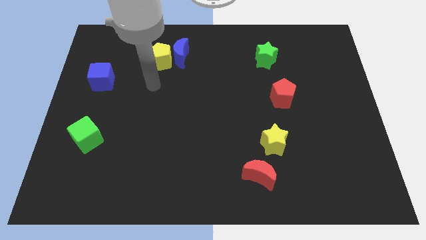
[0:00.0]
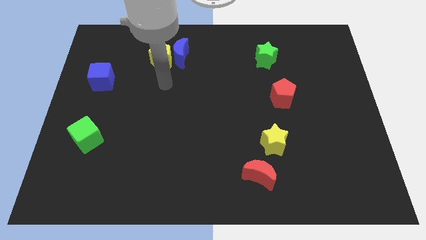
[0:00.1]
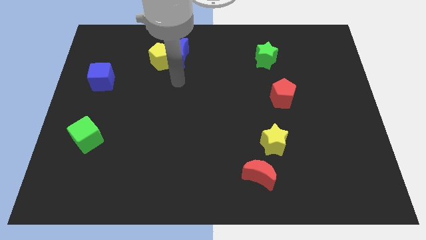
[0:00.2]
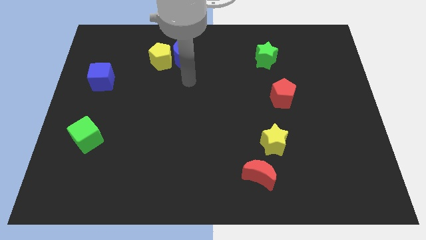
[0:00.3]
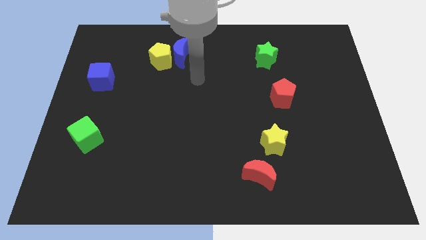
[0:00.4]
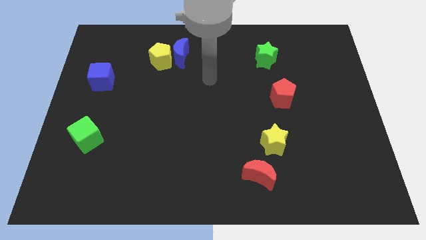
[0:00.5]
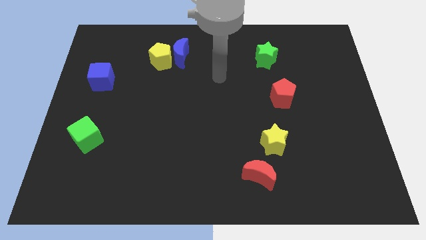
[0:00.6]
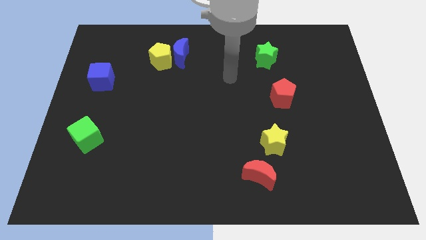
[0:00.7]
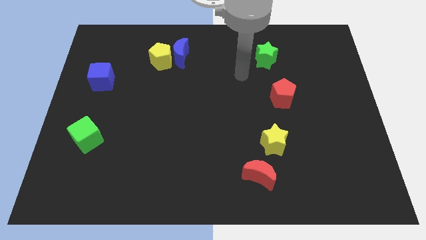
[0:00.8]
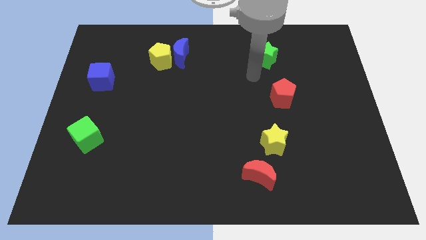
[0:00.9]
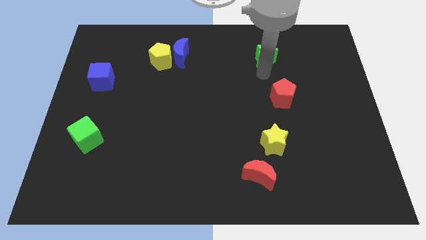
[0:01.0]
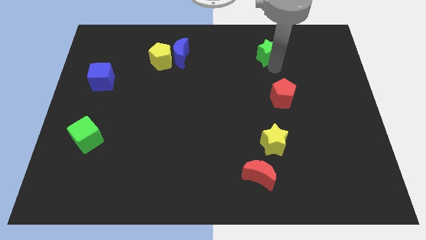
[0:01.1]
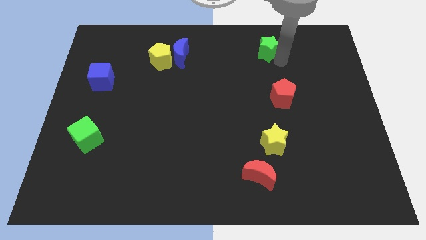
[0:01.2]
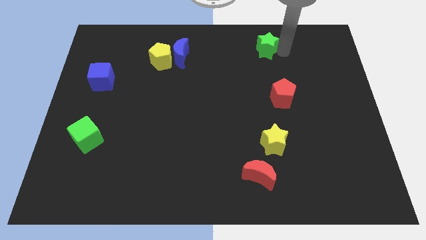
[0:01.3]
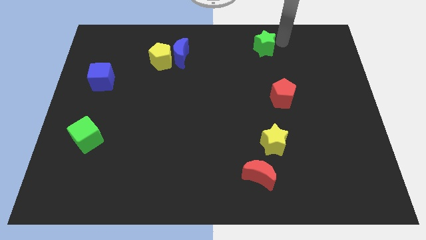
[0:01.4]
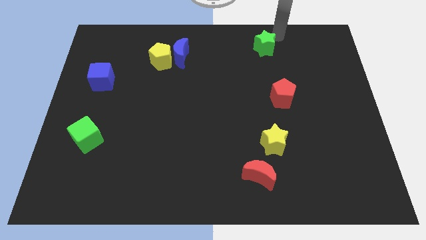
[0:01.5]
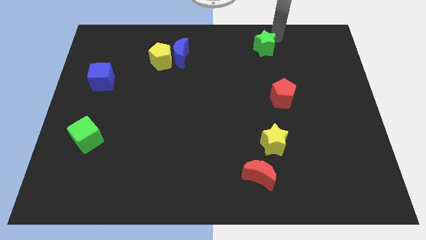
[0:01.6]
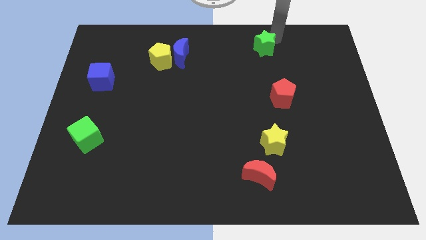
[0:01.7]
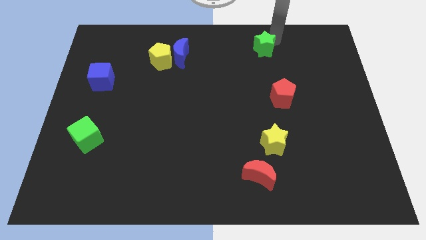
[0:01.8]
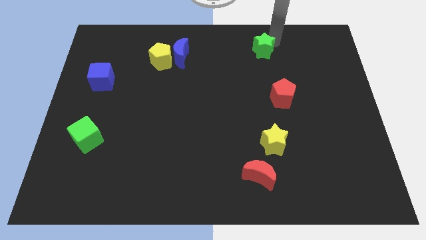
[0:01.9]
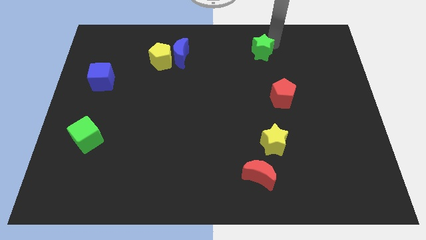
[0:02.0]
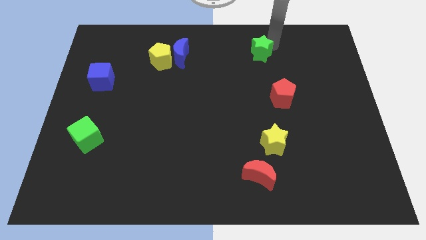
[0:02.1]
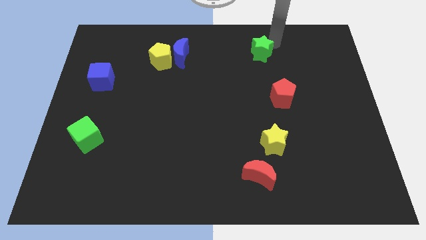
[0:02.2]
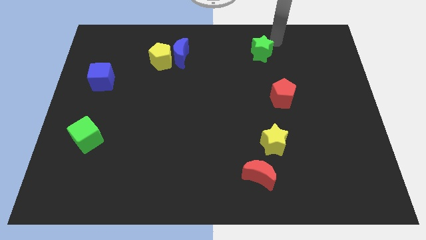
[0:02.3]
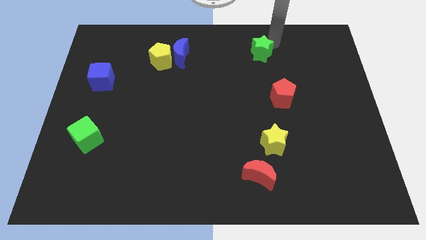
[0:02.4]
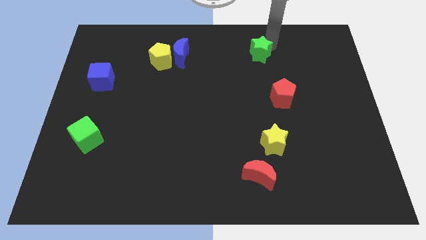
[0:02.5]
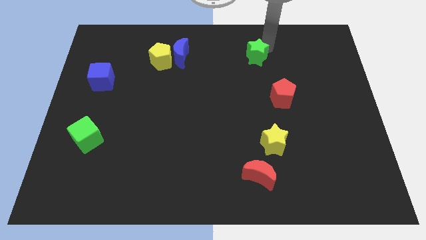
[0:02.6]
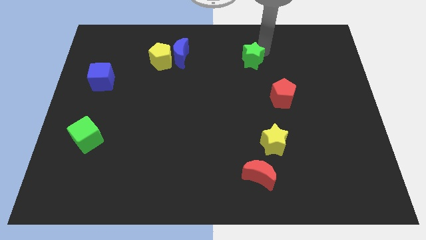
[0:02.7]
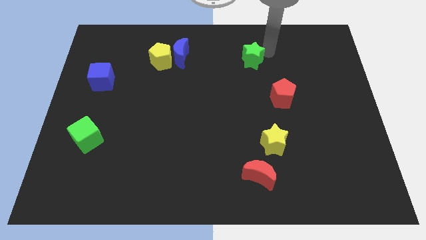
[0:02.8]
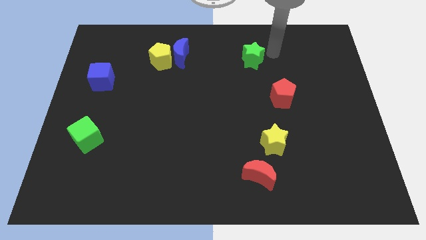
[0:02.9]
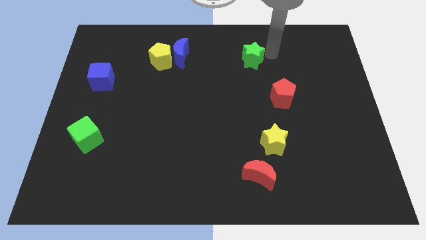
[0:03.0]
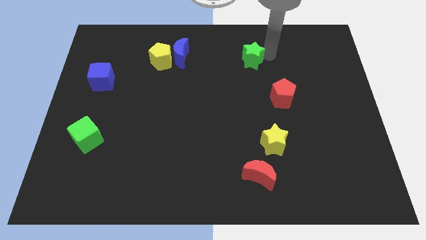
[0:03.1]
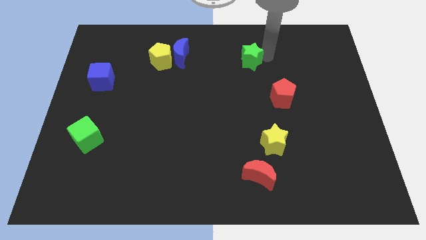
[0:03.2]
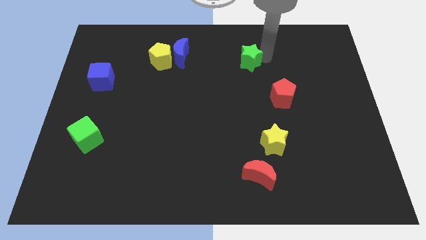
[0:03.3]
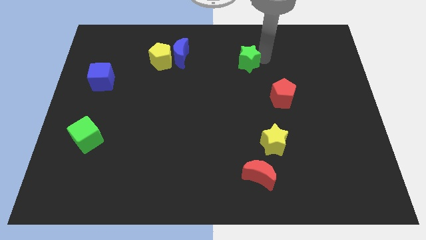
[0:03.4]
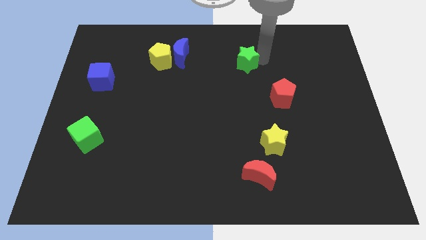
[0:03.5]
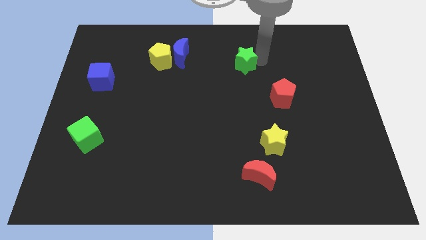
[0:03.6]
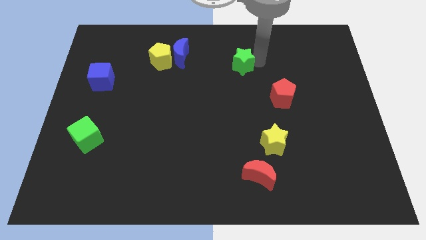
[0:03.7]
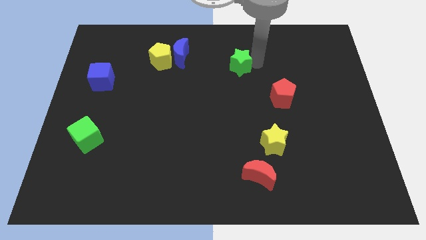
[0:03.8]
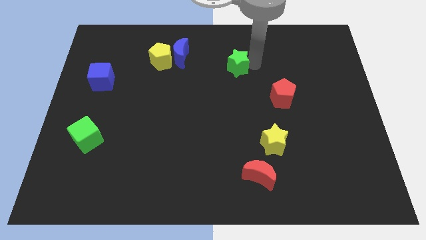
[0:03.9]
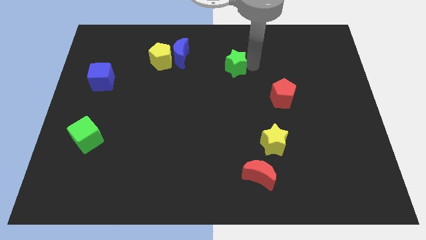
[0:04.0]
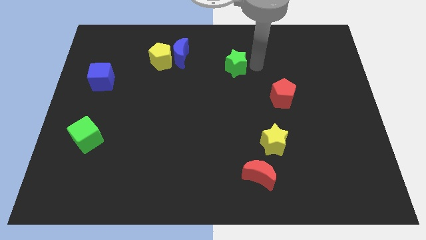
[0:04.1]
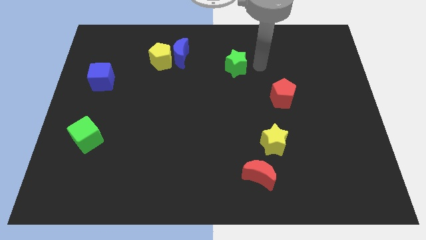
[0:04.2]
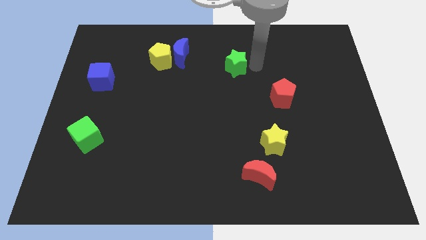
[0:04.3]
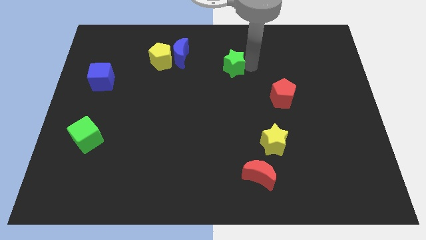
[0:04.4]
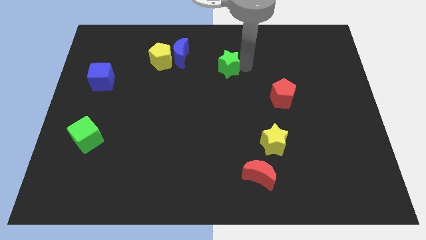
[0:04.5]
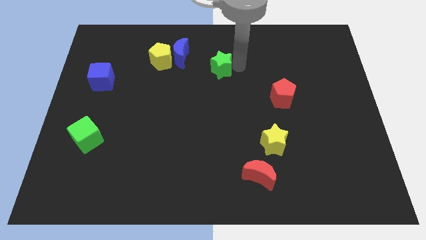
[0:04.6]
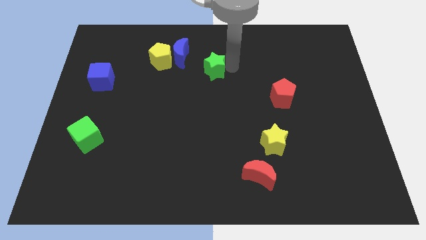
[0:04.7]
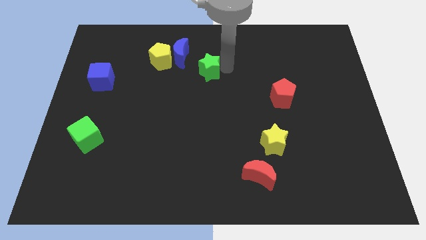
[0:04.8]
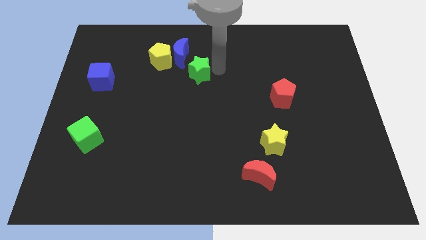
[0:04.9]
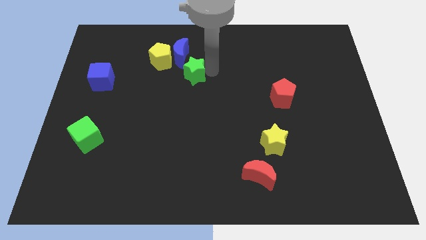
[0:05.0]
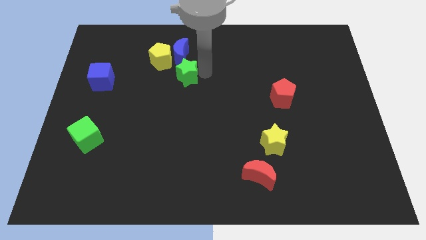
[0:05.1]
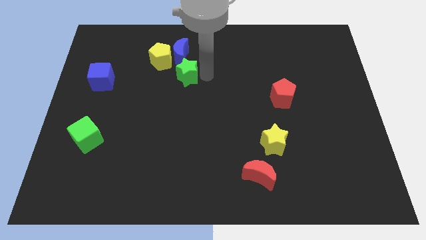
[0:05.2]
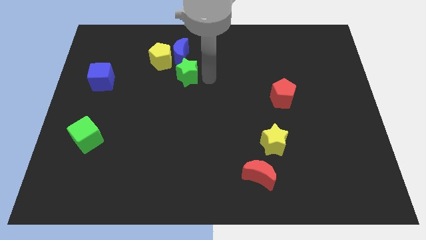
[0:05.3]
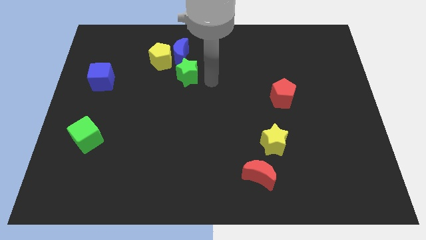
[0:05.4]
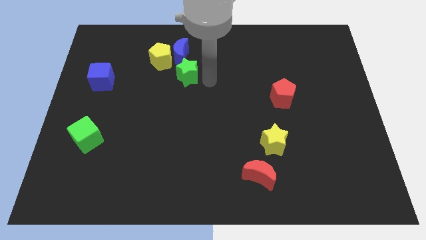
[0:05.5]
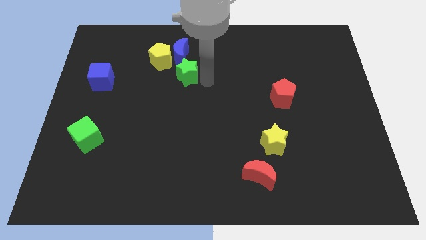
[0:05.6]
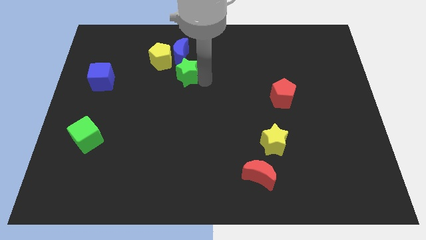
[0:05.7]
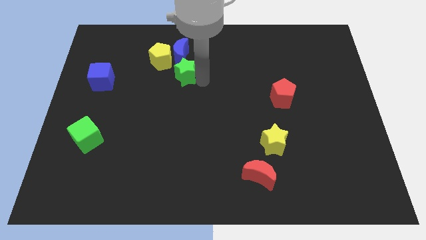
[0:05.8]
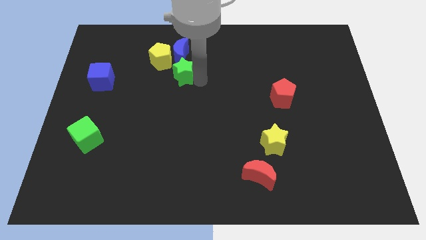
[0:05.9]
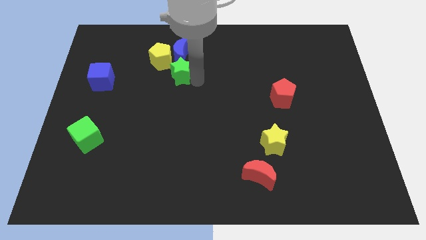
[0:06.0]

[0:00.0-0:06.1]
slide the green star to the bottom left of the blue moon

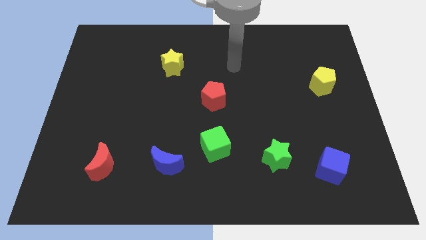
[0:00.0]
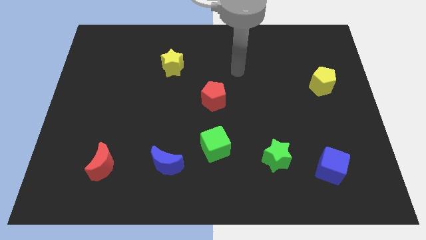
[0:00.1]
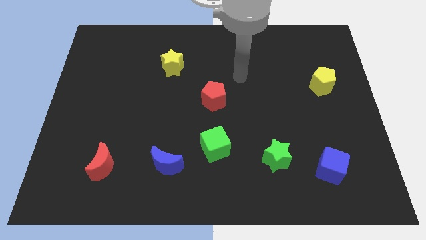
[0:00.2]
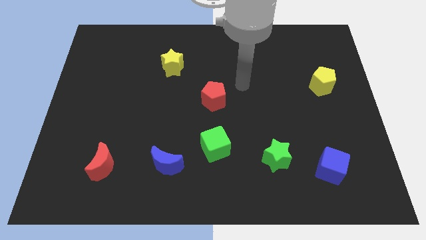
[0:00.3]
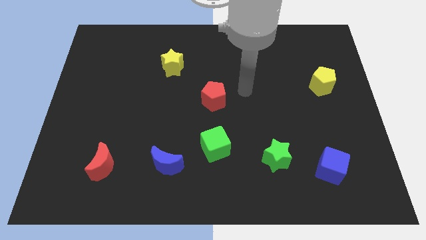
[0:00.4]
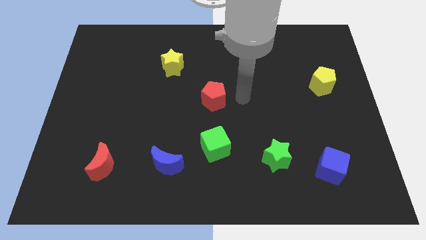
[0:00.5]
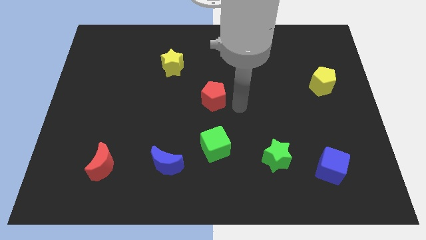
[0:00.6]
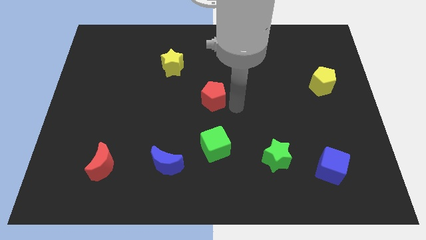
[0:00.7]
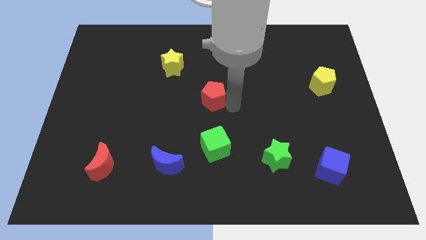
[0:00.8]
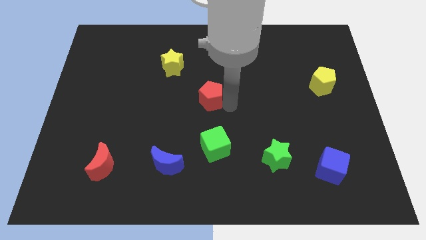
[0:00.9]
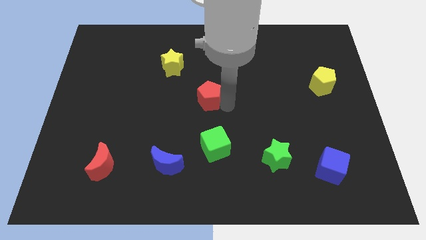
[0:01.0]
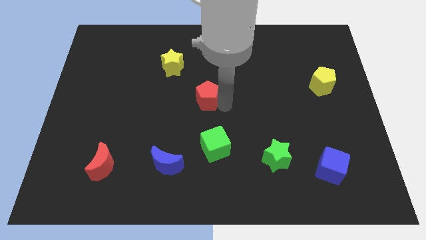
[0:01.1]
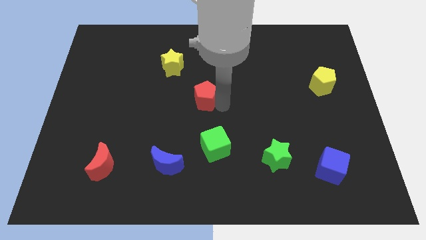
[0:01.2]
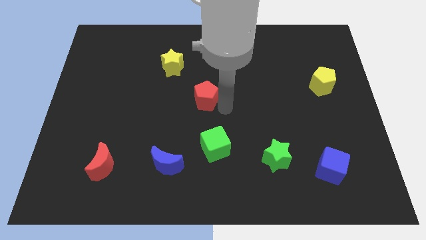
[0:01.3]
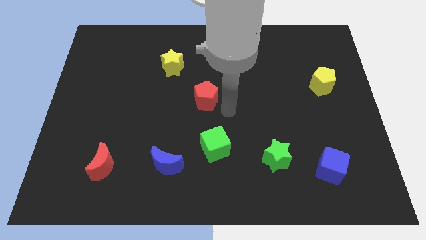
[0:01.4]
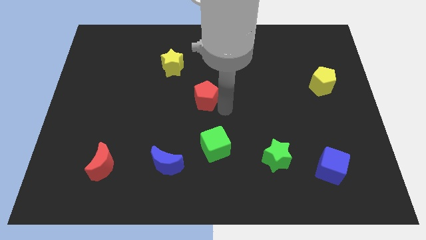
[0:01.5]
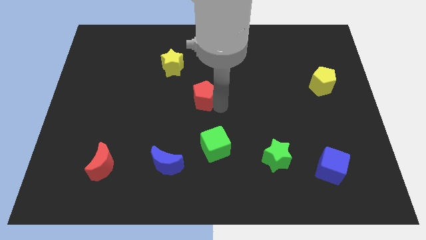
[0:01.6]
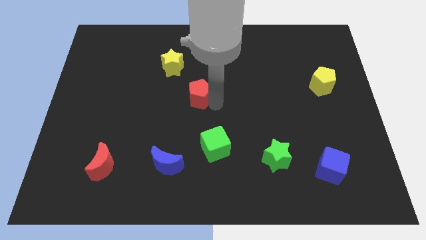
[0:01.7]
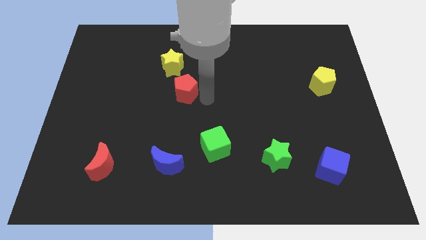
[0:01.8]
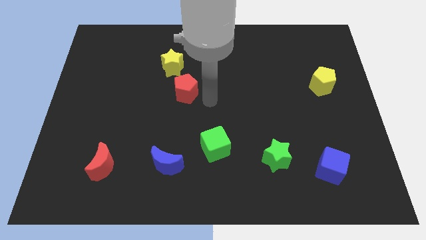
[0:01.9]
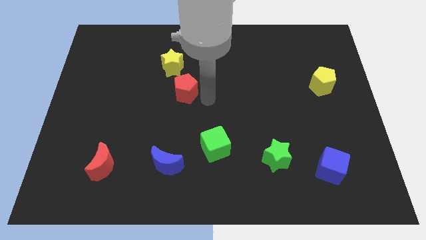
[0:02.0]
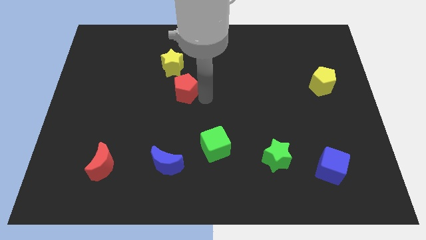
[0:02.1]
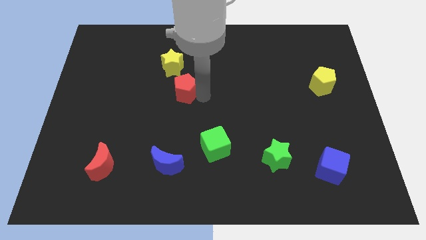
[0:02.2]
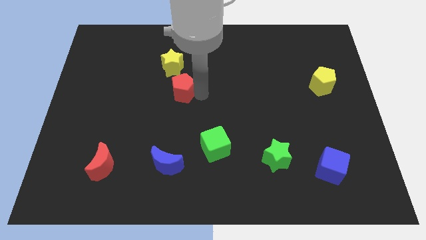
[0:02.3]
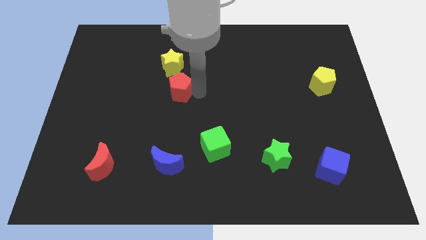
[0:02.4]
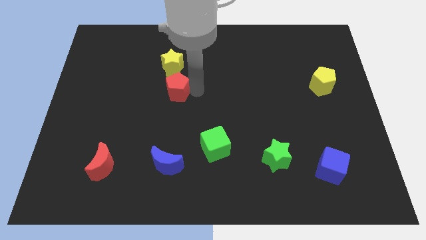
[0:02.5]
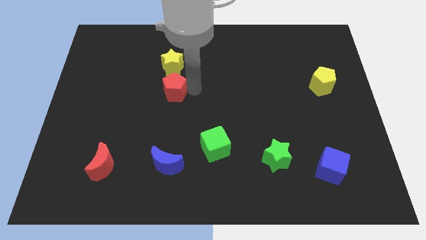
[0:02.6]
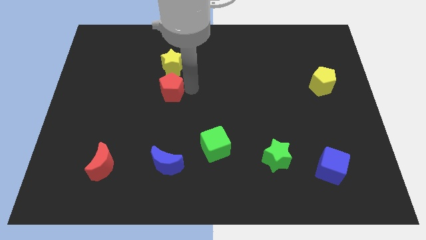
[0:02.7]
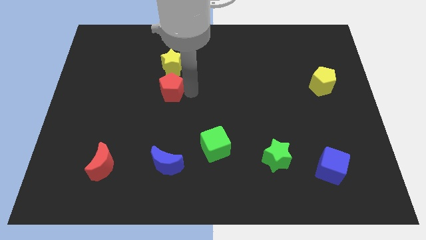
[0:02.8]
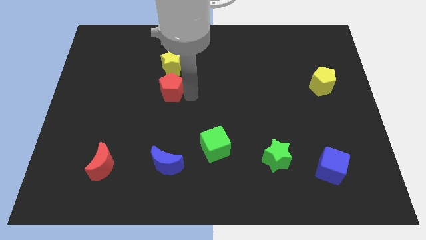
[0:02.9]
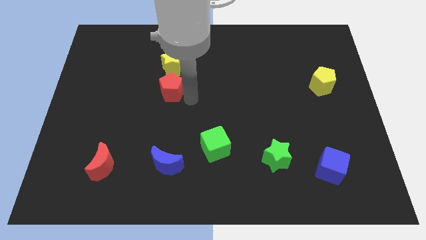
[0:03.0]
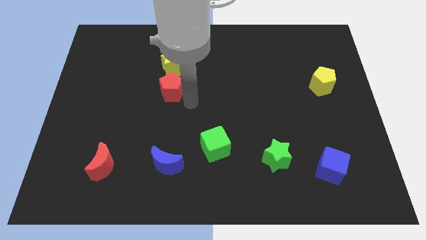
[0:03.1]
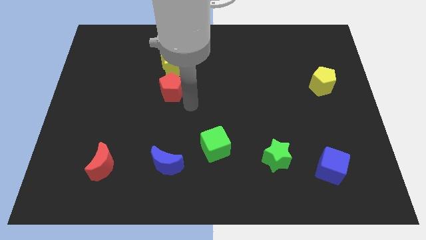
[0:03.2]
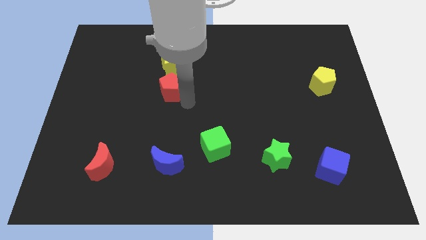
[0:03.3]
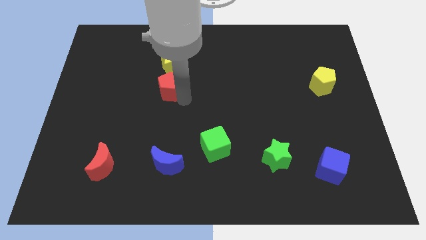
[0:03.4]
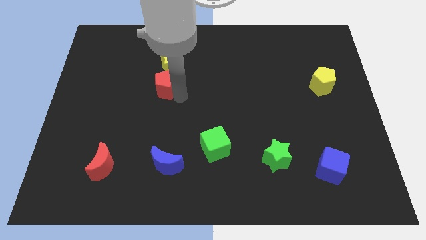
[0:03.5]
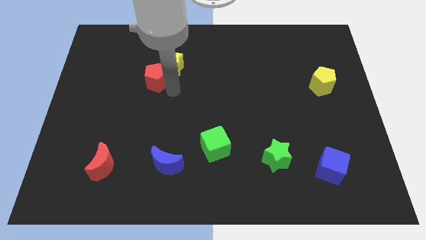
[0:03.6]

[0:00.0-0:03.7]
push the red pentagon just left of the yellow star
